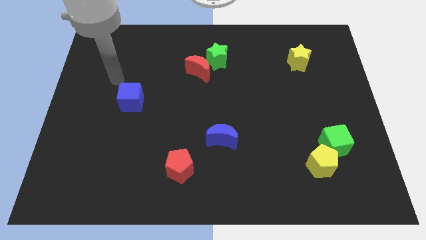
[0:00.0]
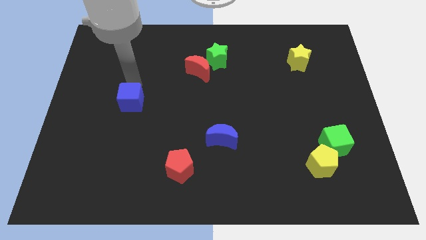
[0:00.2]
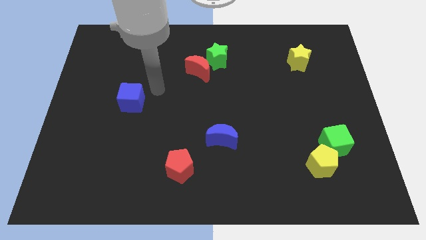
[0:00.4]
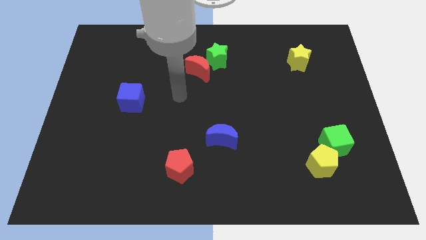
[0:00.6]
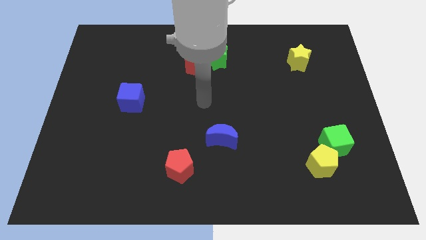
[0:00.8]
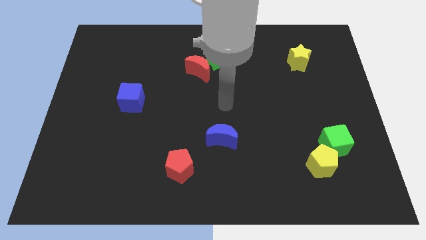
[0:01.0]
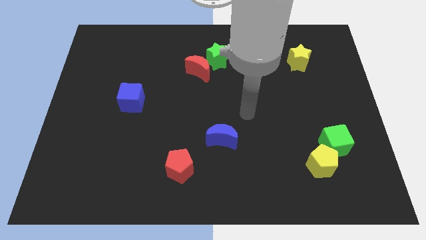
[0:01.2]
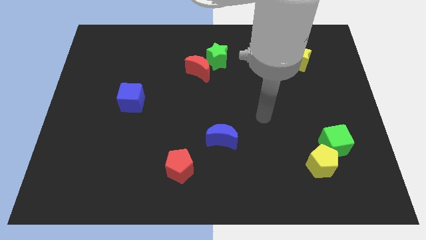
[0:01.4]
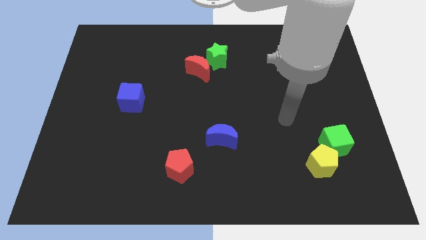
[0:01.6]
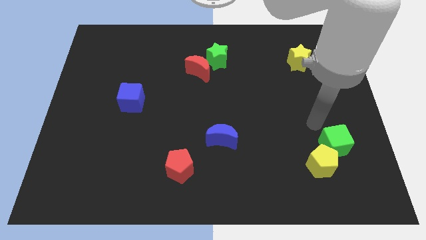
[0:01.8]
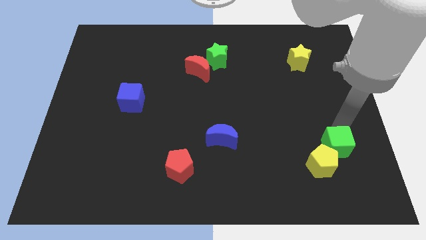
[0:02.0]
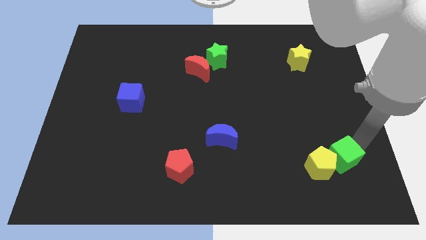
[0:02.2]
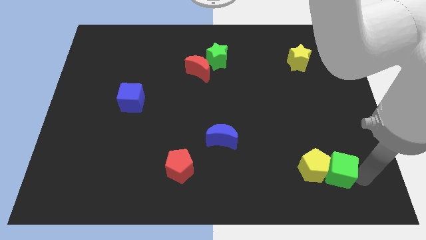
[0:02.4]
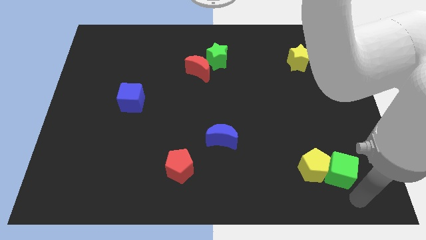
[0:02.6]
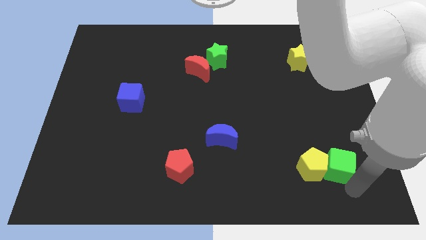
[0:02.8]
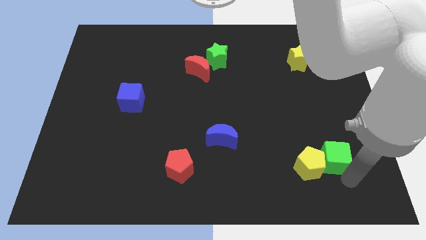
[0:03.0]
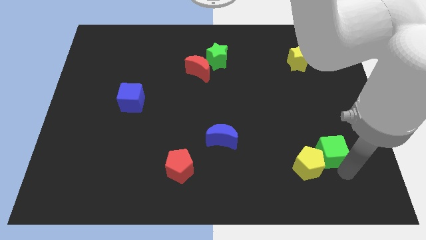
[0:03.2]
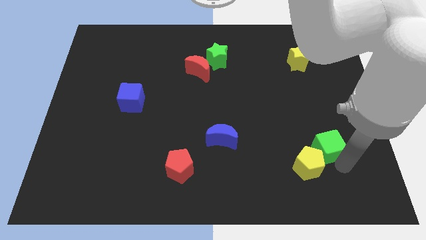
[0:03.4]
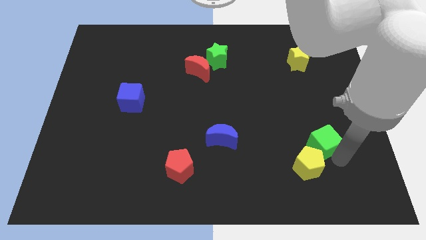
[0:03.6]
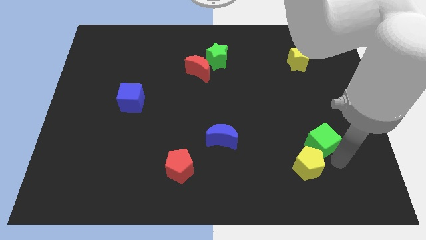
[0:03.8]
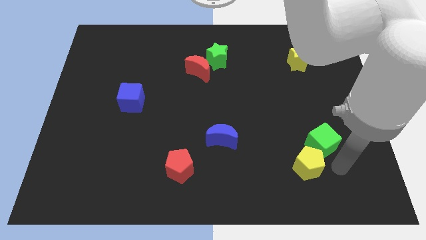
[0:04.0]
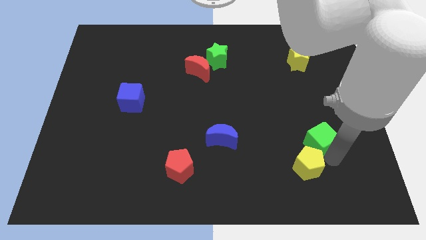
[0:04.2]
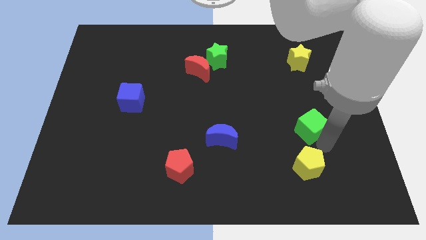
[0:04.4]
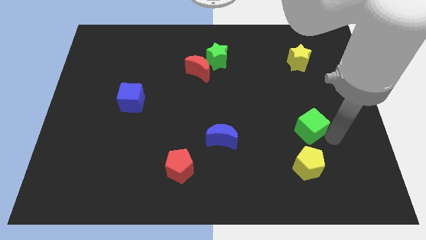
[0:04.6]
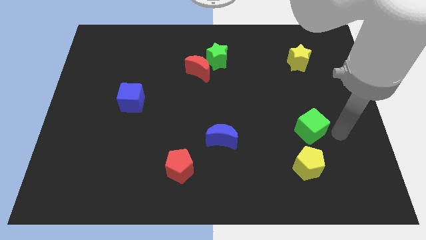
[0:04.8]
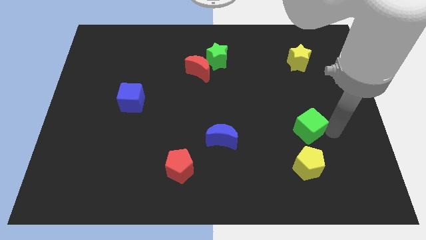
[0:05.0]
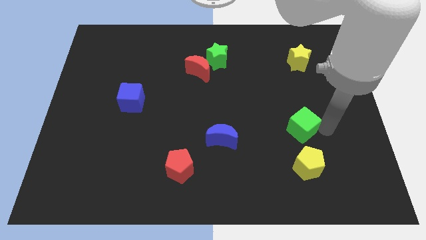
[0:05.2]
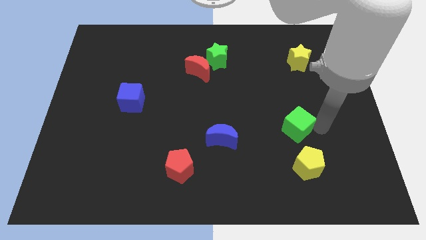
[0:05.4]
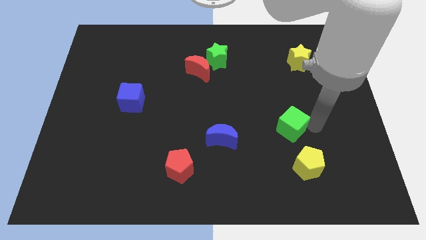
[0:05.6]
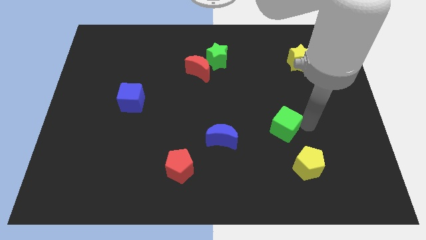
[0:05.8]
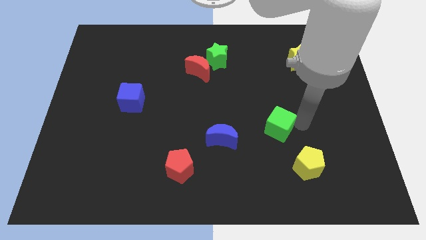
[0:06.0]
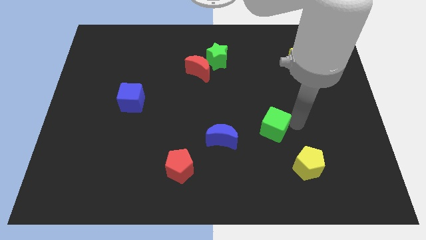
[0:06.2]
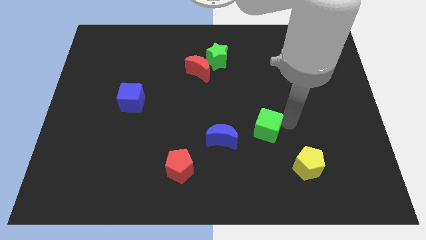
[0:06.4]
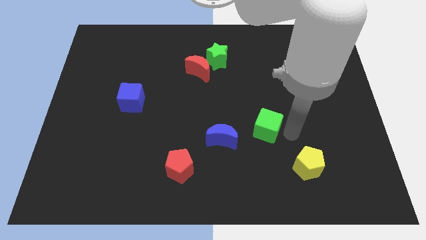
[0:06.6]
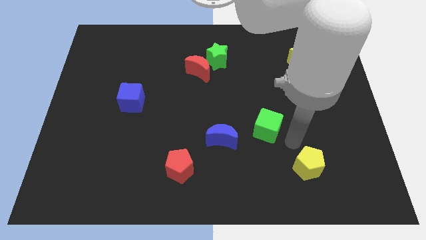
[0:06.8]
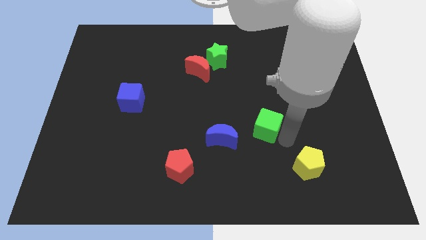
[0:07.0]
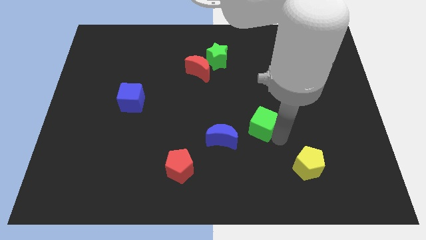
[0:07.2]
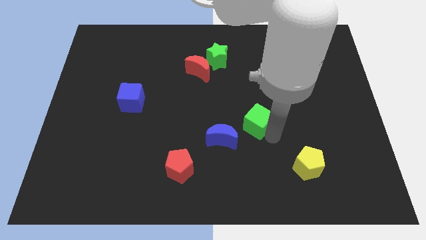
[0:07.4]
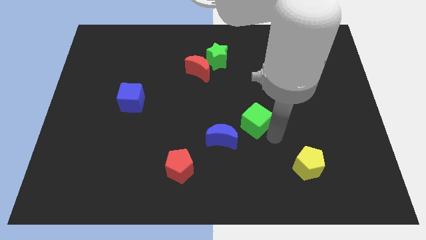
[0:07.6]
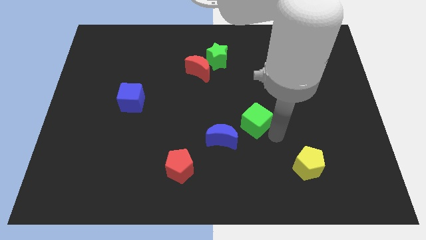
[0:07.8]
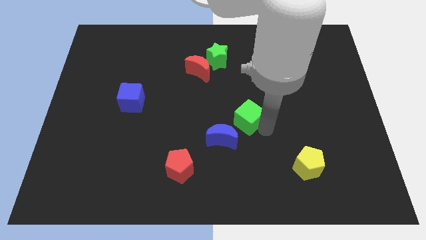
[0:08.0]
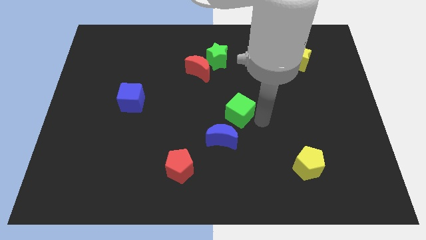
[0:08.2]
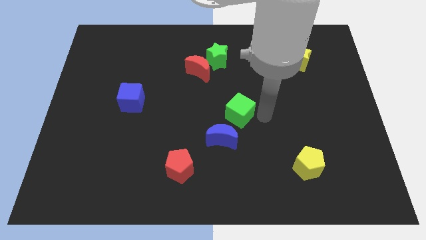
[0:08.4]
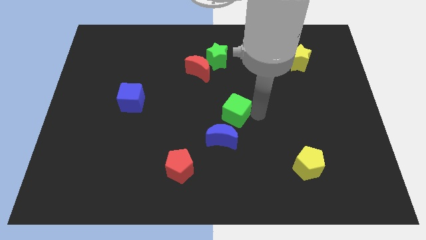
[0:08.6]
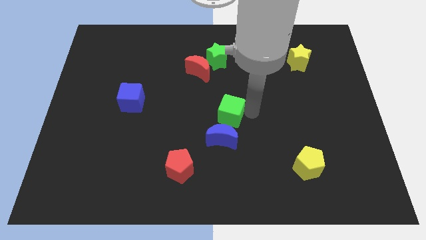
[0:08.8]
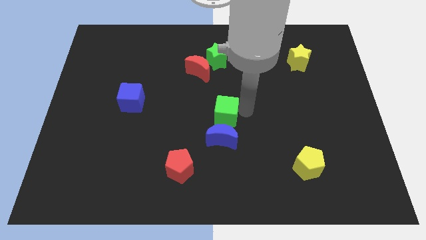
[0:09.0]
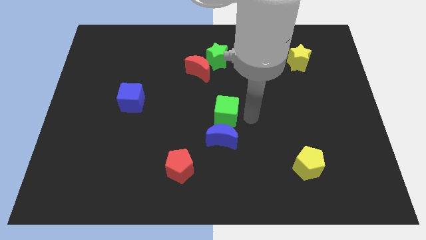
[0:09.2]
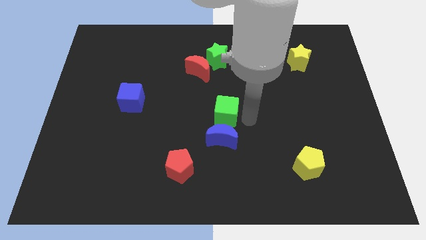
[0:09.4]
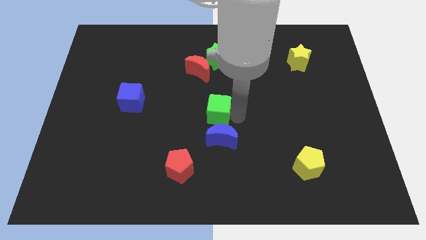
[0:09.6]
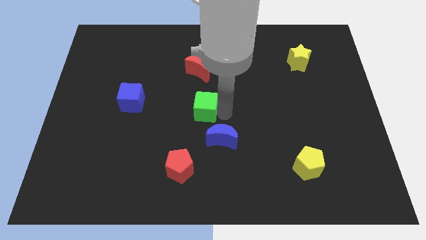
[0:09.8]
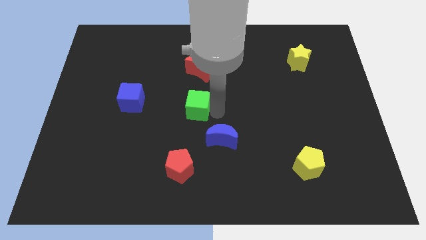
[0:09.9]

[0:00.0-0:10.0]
slide the green cube to the right of the blue cube

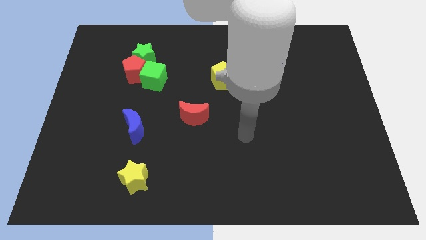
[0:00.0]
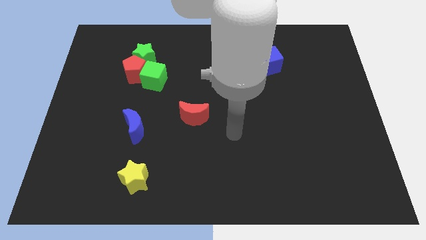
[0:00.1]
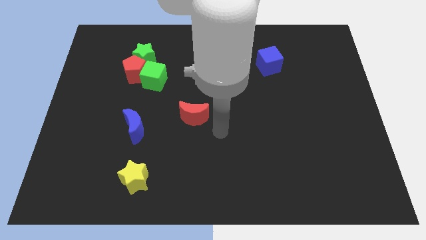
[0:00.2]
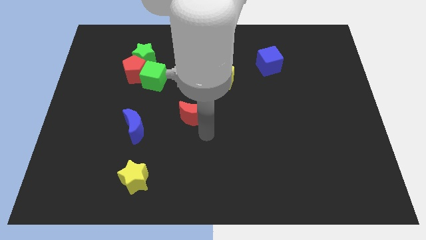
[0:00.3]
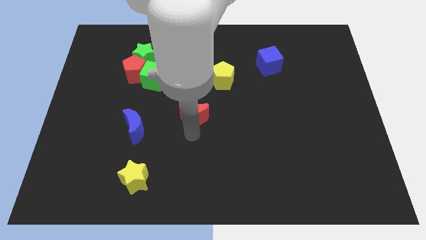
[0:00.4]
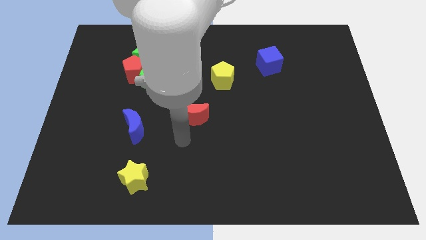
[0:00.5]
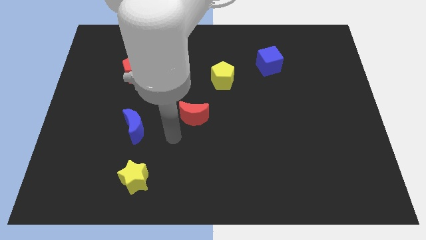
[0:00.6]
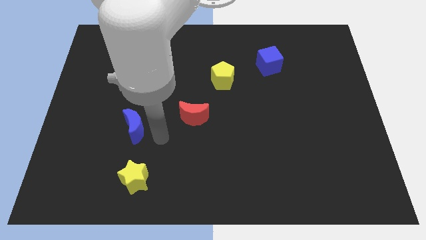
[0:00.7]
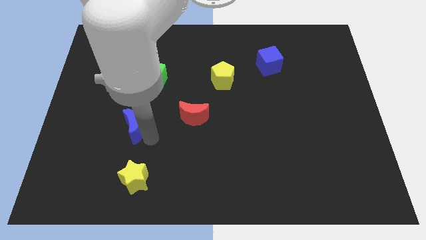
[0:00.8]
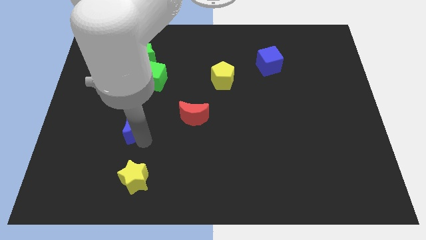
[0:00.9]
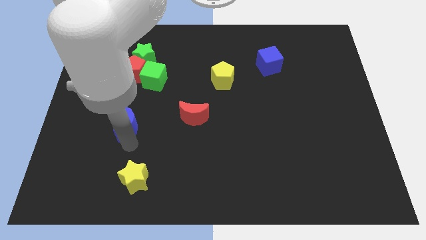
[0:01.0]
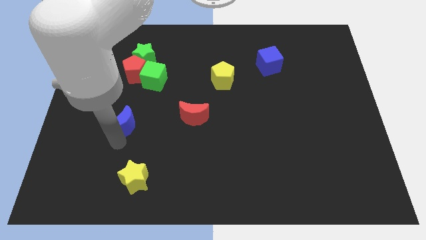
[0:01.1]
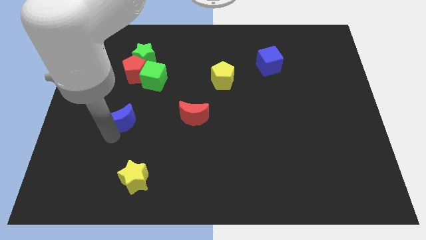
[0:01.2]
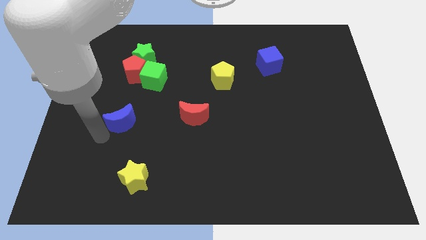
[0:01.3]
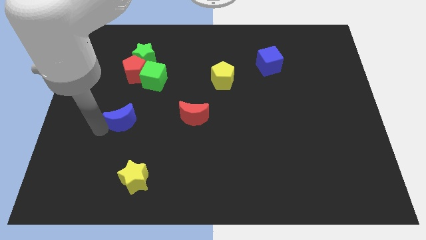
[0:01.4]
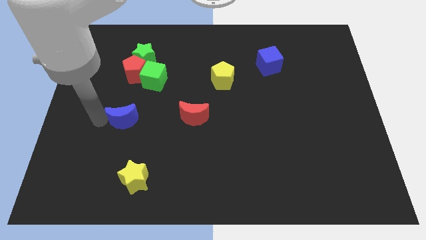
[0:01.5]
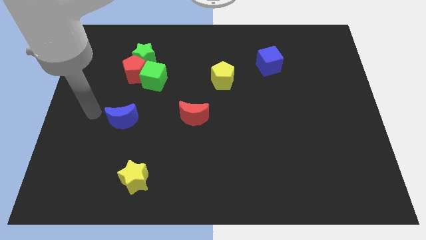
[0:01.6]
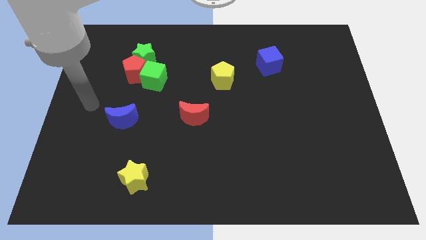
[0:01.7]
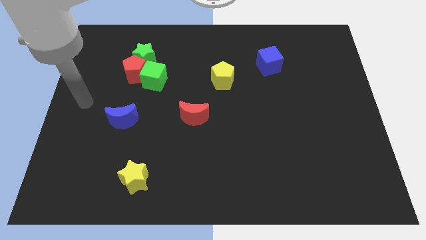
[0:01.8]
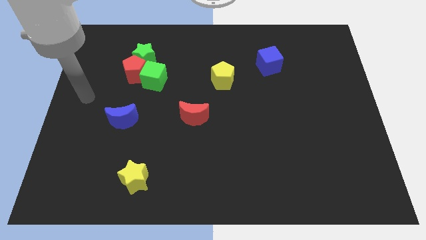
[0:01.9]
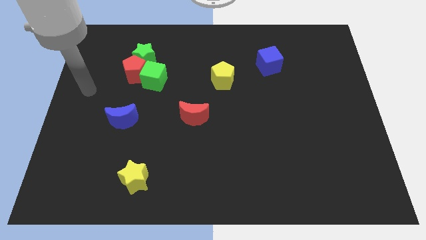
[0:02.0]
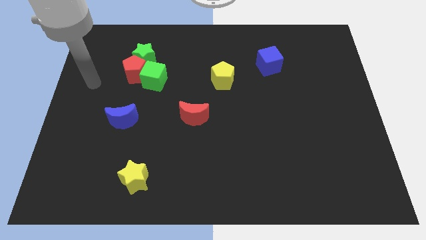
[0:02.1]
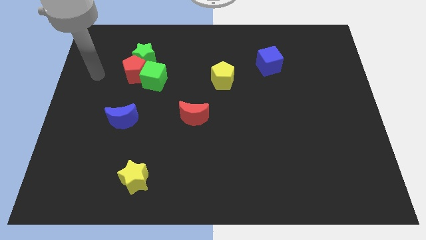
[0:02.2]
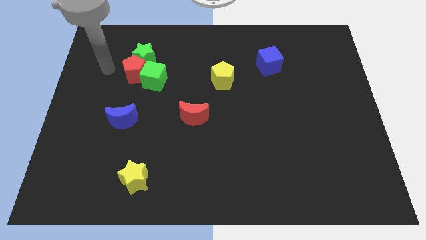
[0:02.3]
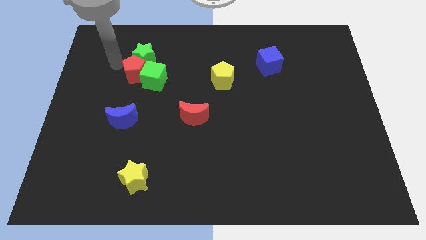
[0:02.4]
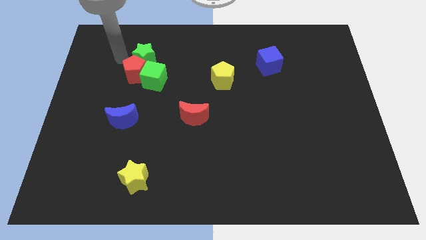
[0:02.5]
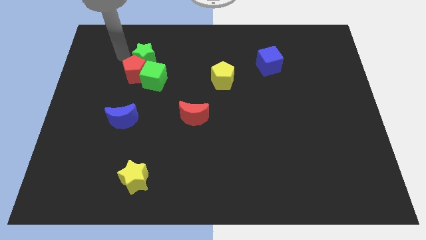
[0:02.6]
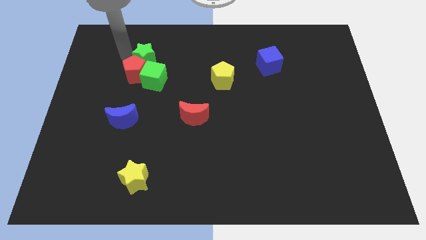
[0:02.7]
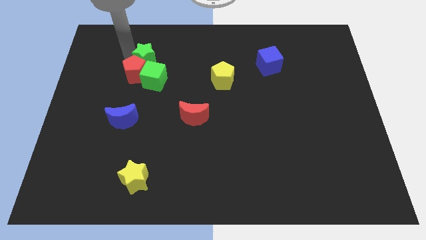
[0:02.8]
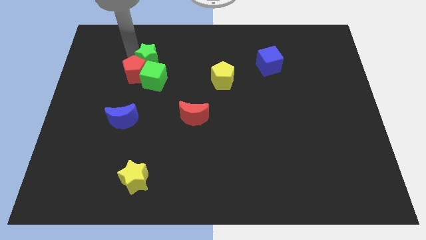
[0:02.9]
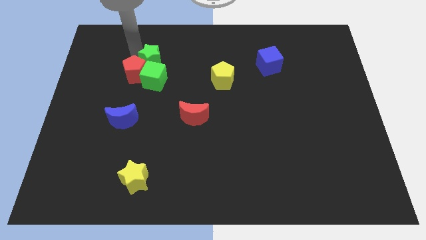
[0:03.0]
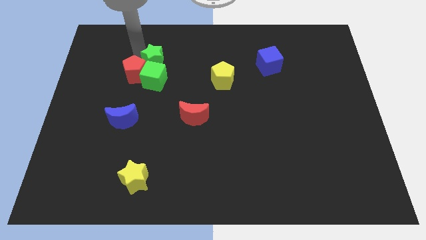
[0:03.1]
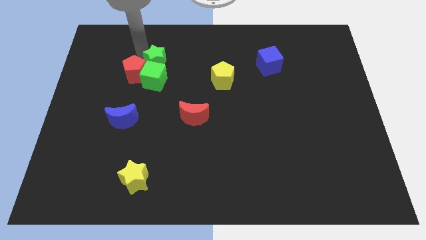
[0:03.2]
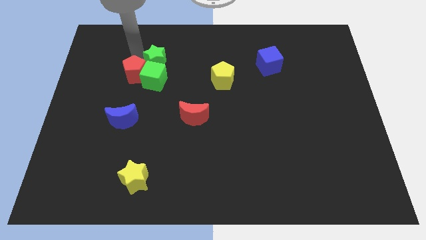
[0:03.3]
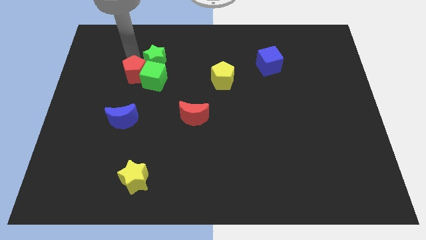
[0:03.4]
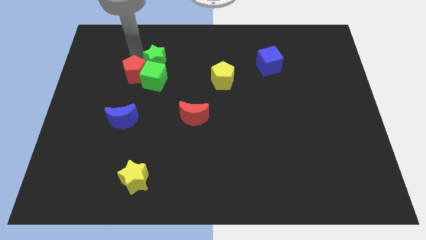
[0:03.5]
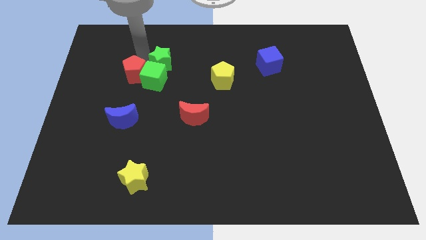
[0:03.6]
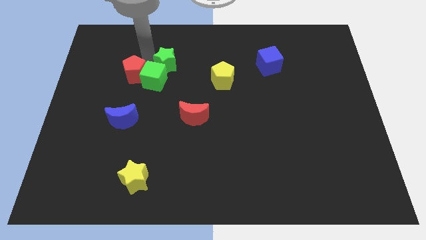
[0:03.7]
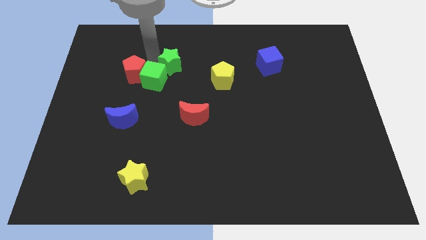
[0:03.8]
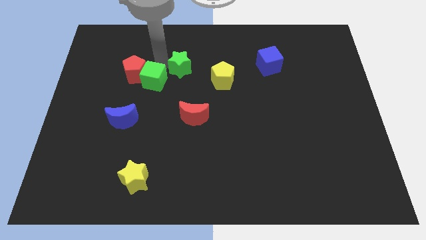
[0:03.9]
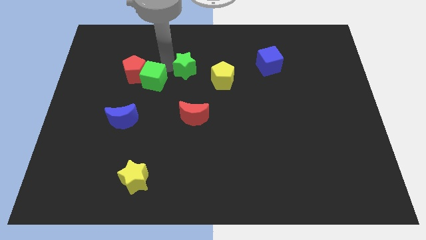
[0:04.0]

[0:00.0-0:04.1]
put the green star to the top left of the yellow pentagon
